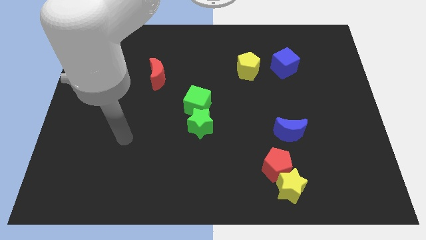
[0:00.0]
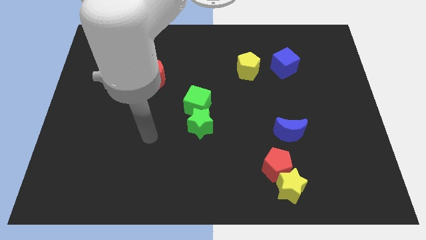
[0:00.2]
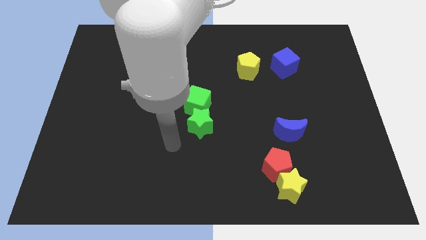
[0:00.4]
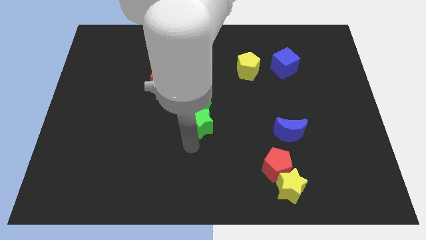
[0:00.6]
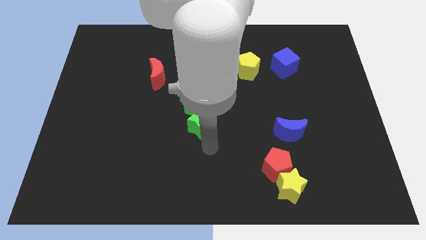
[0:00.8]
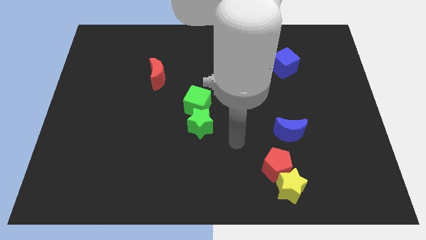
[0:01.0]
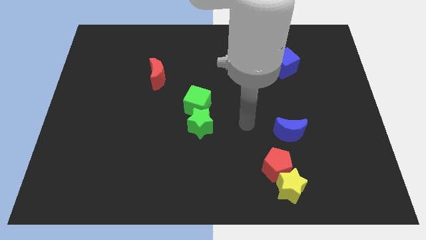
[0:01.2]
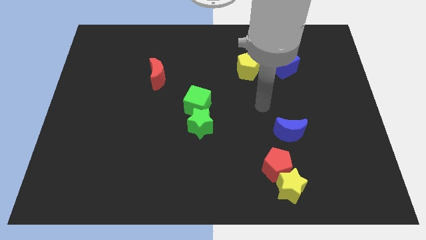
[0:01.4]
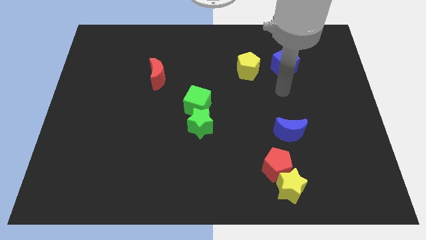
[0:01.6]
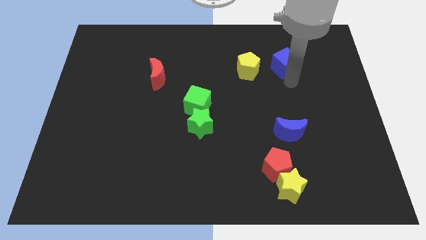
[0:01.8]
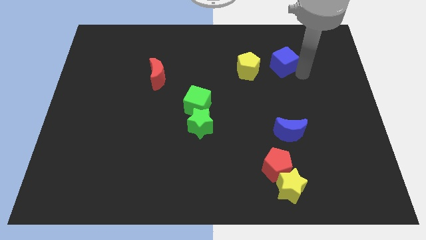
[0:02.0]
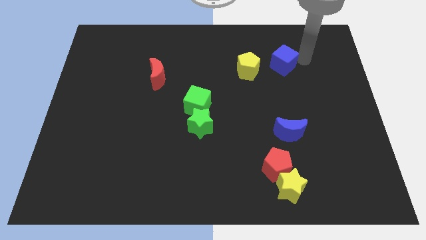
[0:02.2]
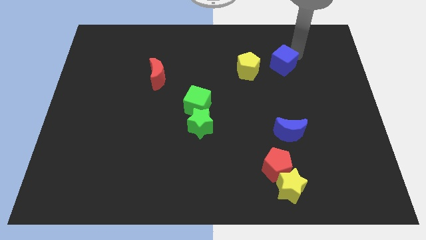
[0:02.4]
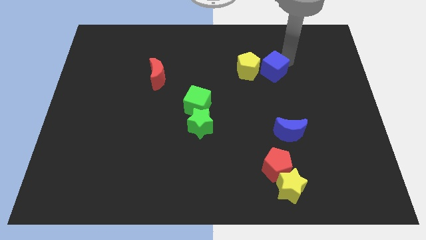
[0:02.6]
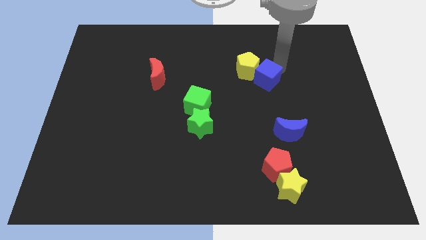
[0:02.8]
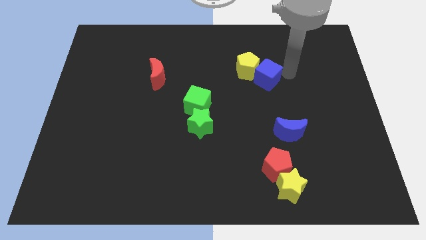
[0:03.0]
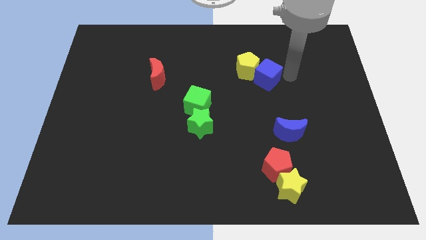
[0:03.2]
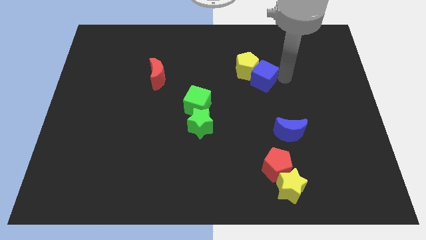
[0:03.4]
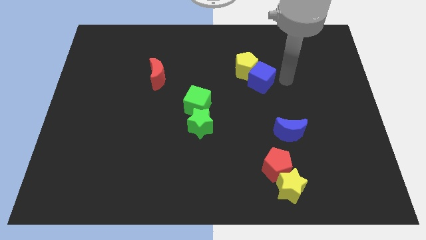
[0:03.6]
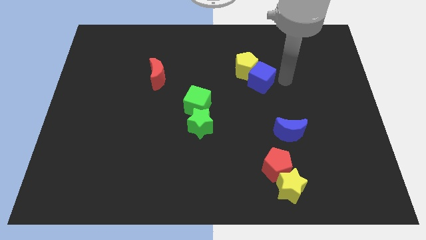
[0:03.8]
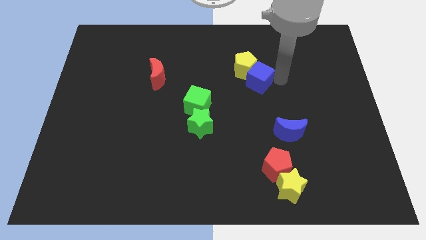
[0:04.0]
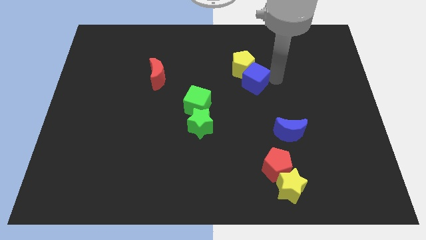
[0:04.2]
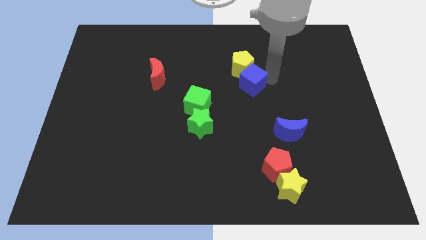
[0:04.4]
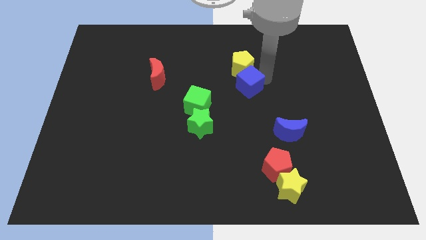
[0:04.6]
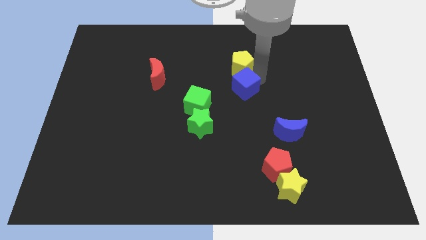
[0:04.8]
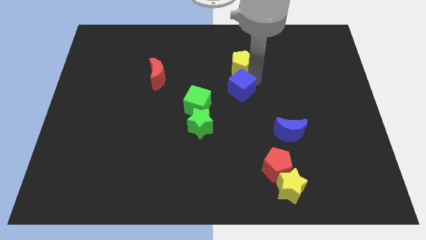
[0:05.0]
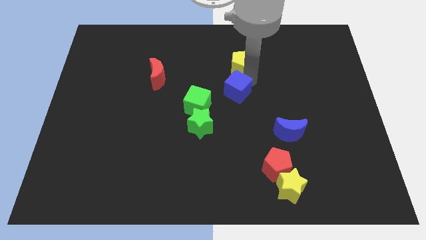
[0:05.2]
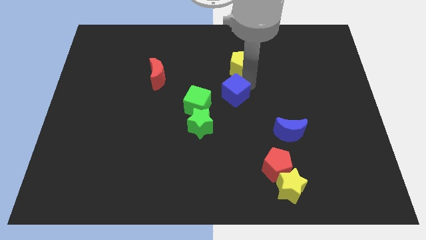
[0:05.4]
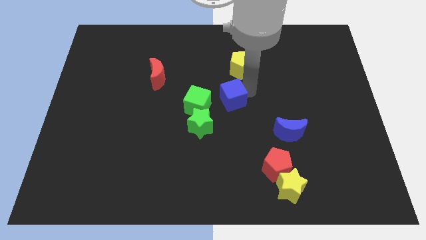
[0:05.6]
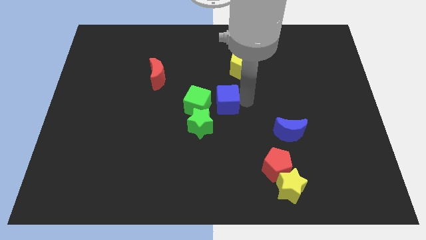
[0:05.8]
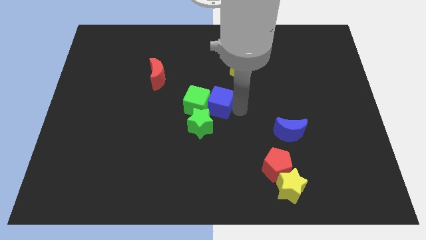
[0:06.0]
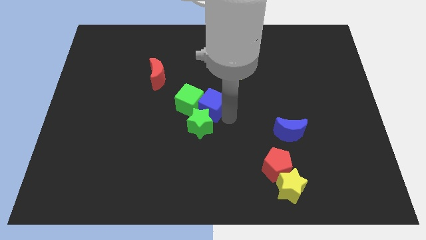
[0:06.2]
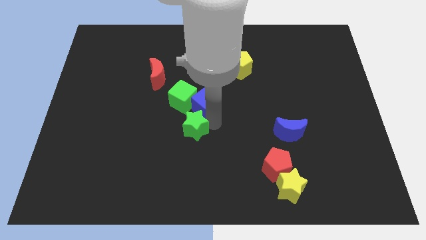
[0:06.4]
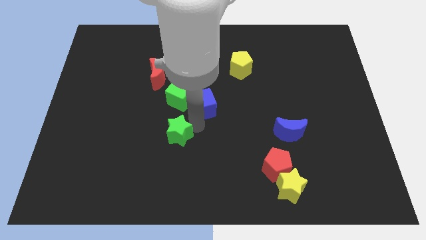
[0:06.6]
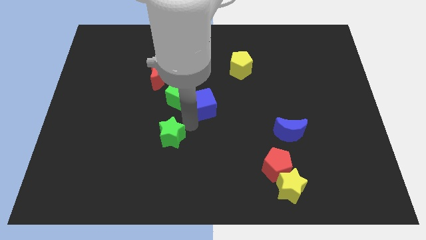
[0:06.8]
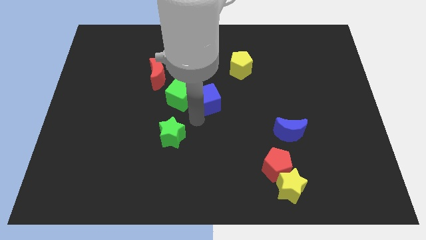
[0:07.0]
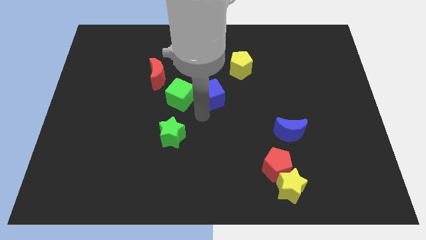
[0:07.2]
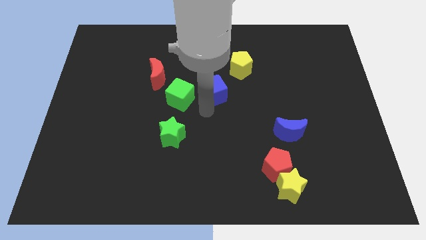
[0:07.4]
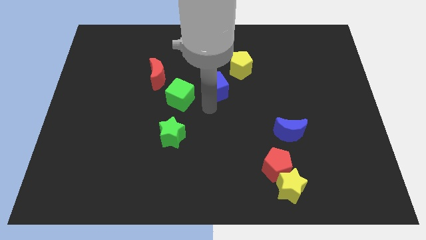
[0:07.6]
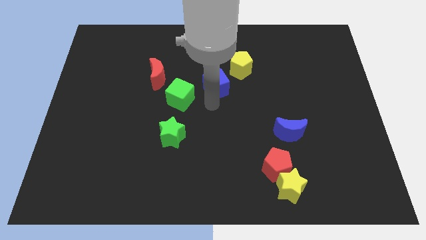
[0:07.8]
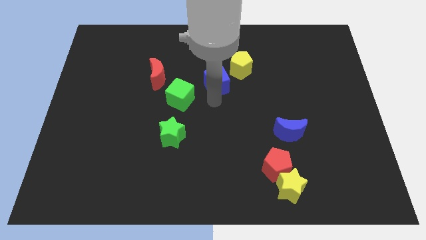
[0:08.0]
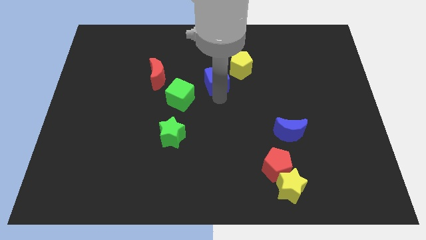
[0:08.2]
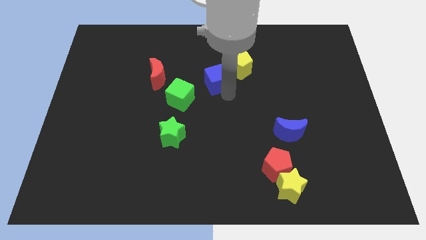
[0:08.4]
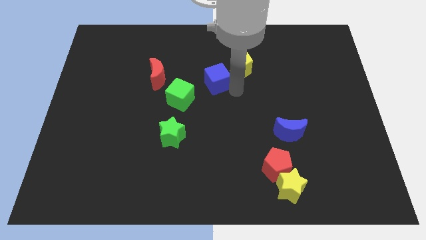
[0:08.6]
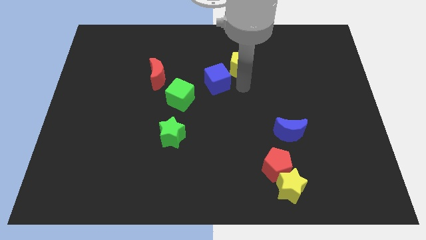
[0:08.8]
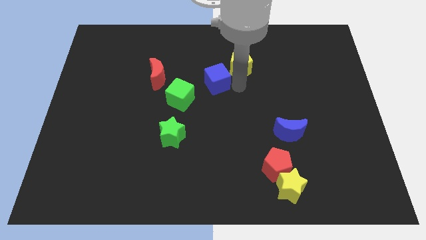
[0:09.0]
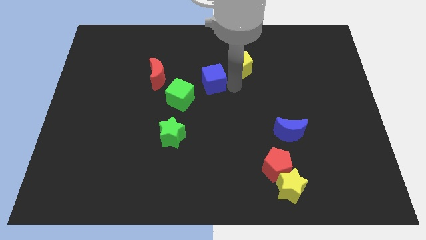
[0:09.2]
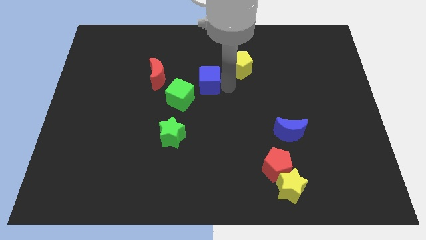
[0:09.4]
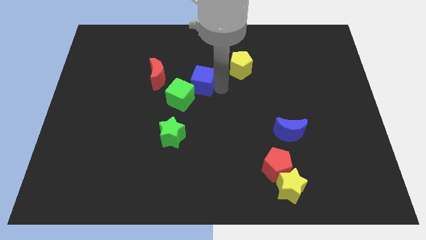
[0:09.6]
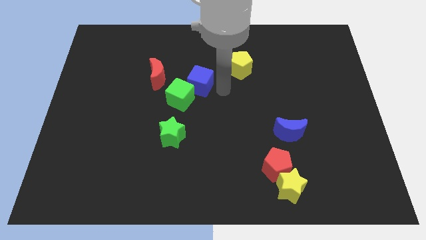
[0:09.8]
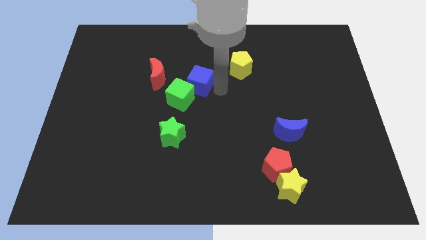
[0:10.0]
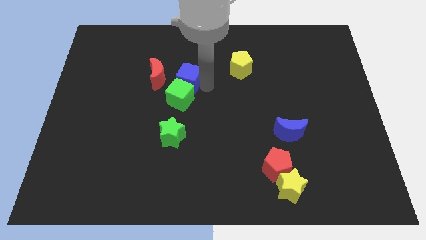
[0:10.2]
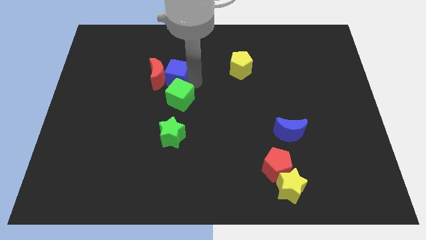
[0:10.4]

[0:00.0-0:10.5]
put the blue cube next to the red moon

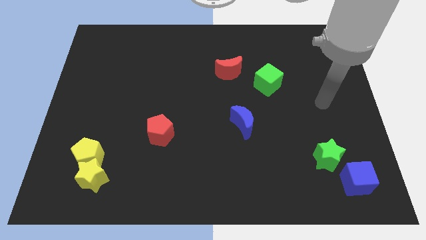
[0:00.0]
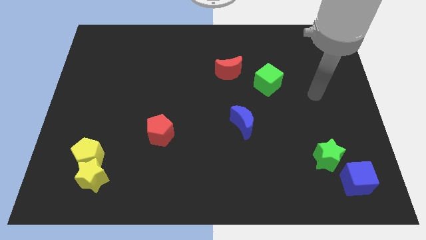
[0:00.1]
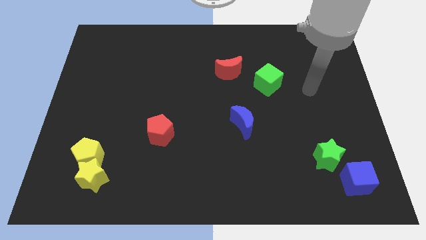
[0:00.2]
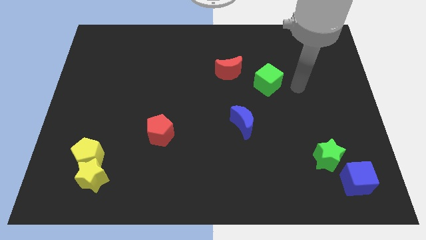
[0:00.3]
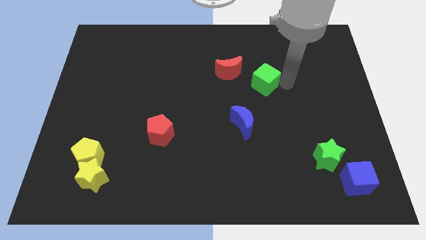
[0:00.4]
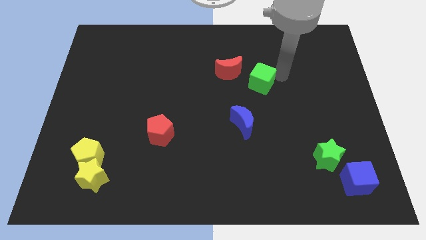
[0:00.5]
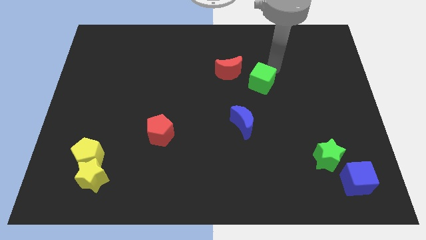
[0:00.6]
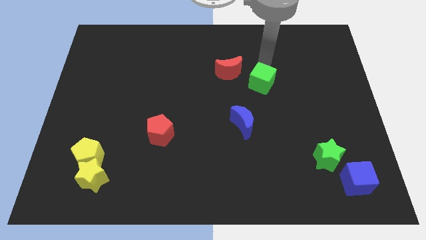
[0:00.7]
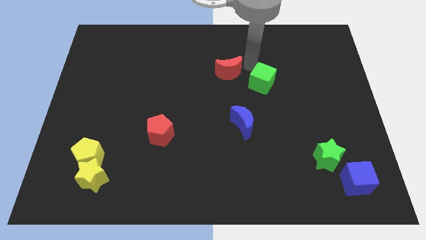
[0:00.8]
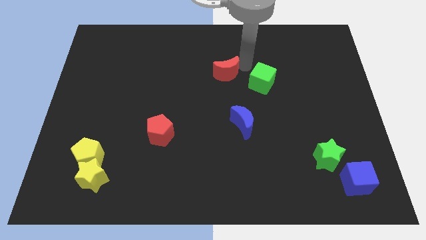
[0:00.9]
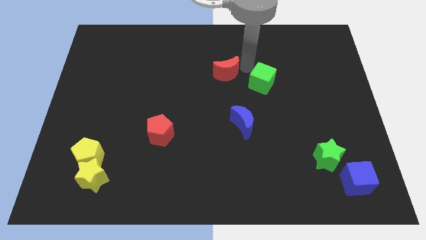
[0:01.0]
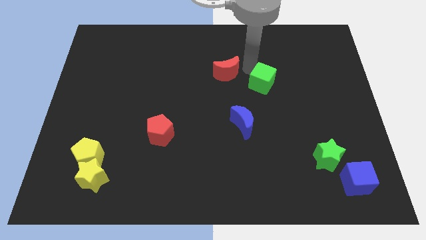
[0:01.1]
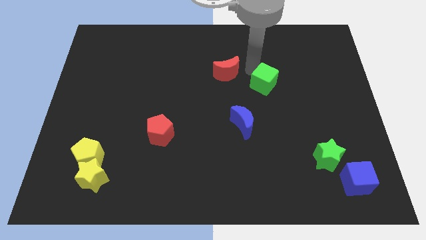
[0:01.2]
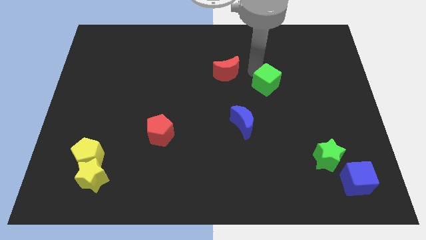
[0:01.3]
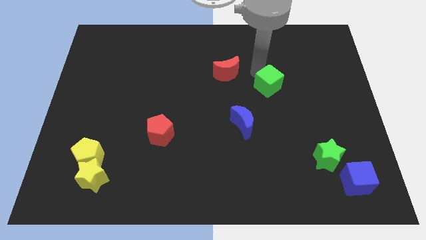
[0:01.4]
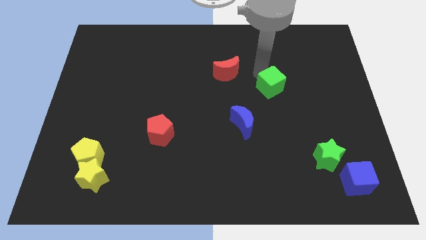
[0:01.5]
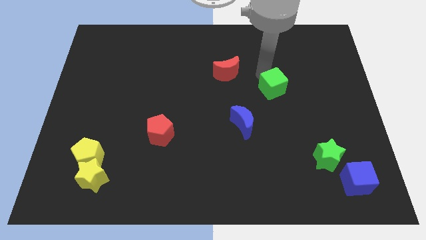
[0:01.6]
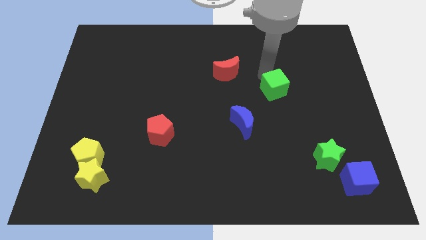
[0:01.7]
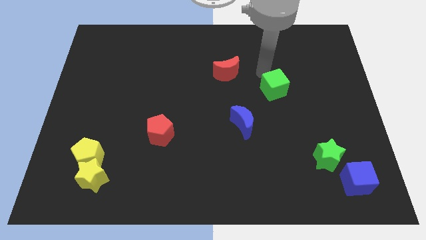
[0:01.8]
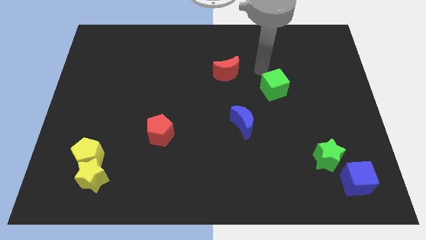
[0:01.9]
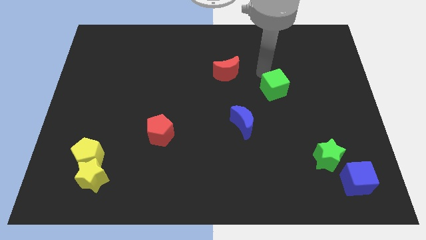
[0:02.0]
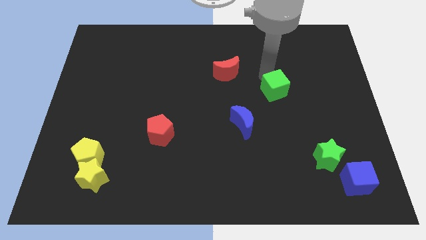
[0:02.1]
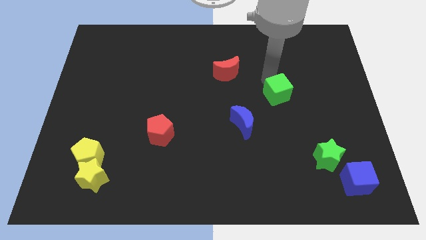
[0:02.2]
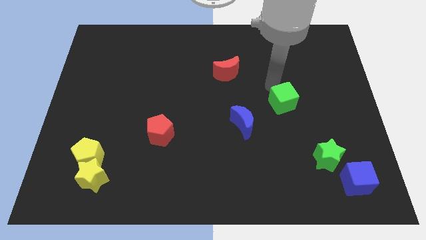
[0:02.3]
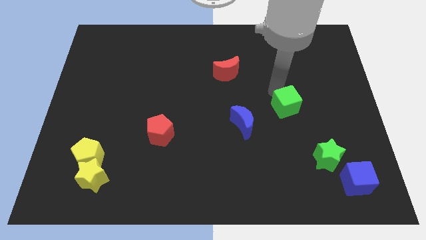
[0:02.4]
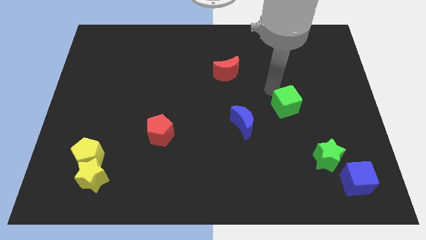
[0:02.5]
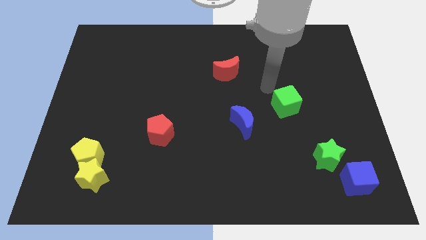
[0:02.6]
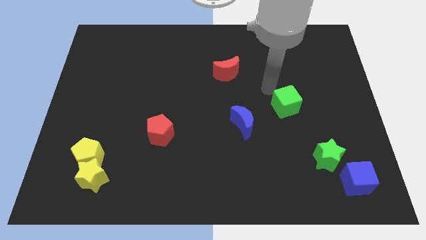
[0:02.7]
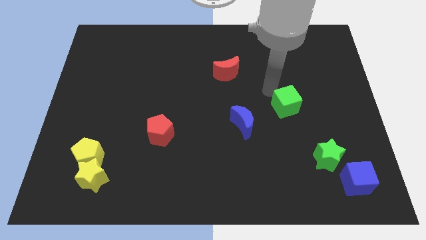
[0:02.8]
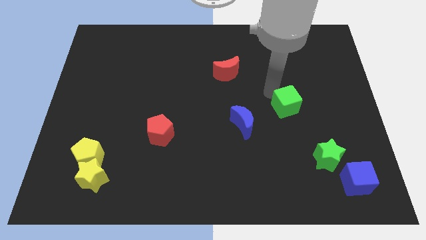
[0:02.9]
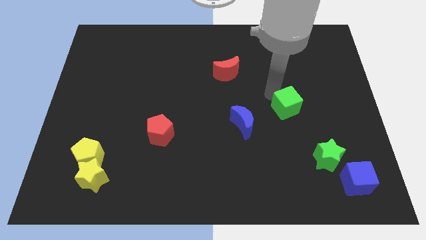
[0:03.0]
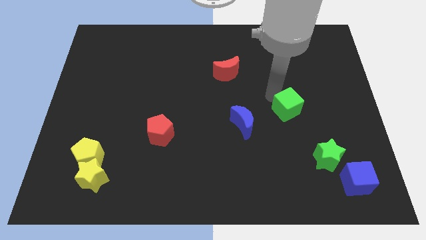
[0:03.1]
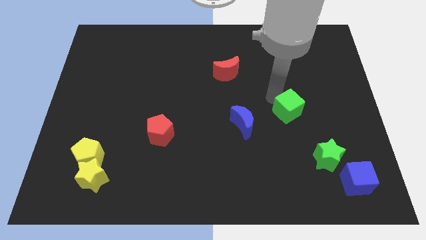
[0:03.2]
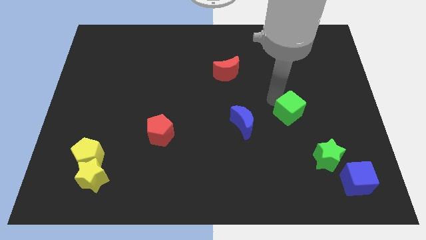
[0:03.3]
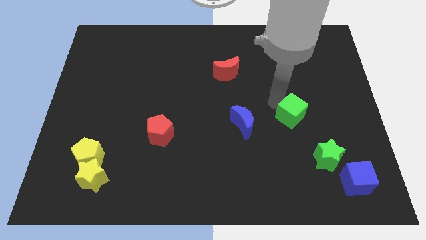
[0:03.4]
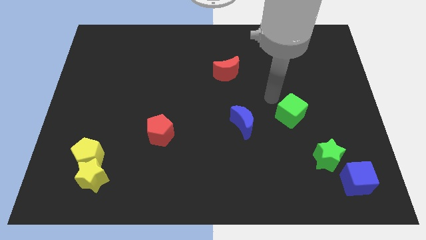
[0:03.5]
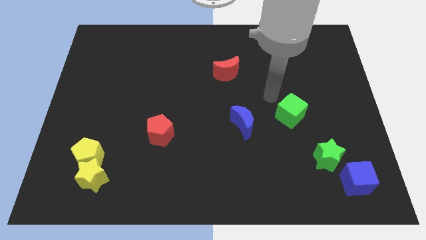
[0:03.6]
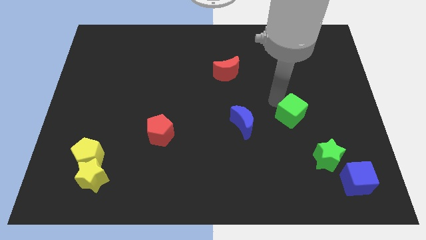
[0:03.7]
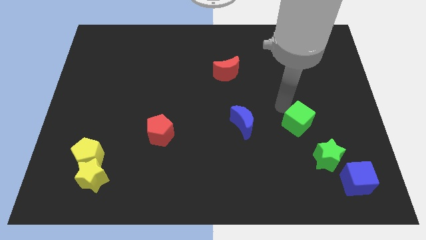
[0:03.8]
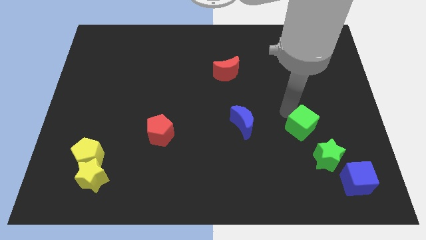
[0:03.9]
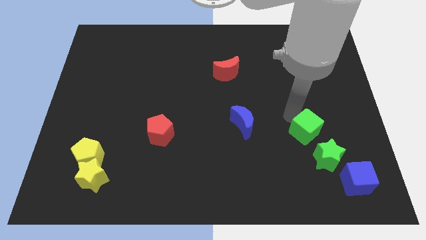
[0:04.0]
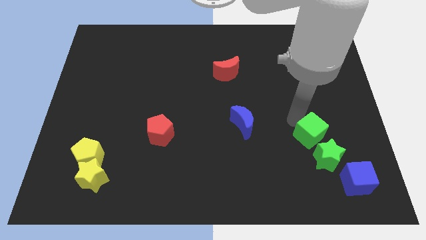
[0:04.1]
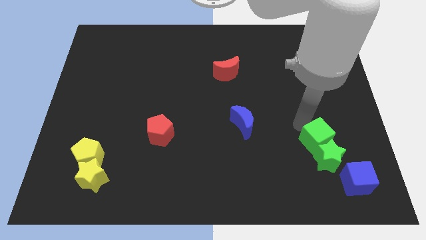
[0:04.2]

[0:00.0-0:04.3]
move the green cube next to the green star
